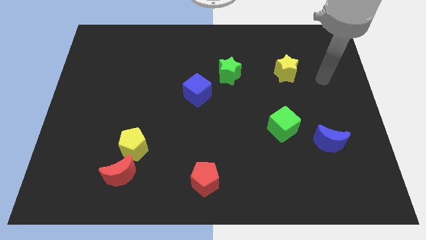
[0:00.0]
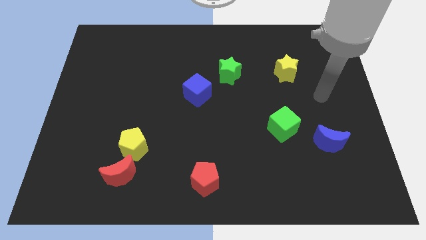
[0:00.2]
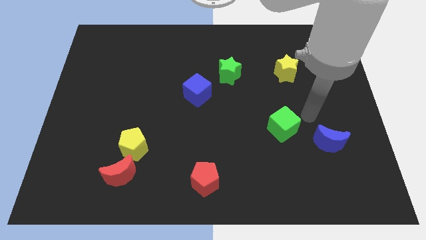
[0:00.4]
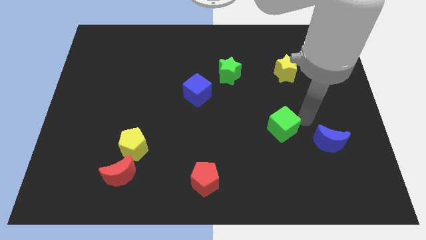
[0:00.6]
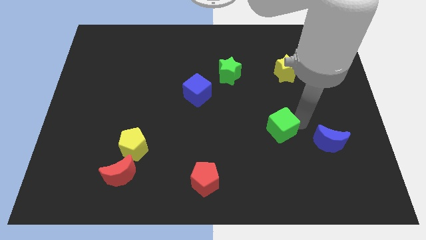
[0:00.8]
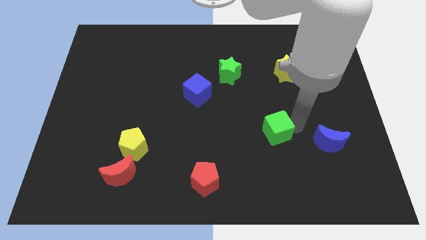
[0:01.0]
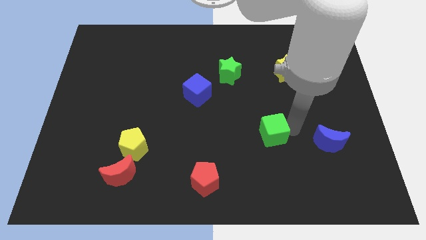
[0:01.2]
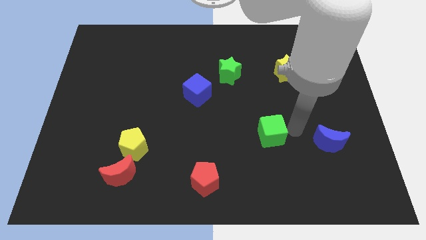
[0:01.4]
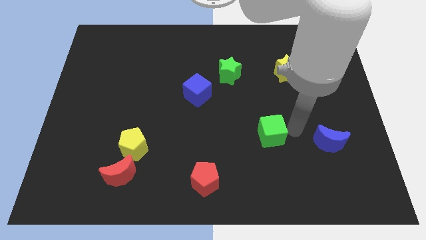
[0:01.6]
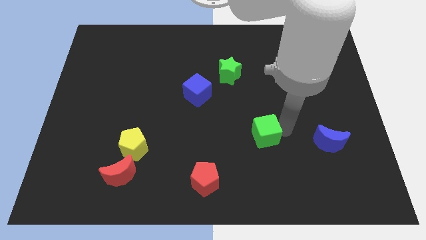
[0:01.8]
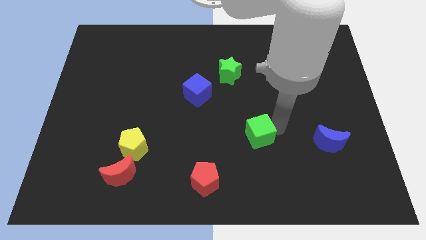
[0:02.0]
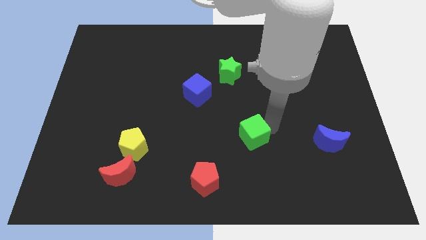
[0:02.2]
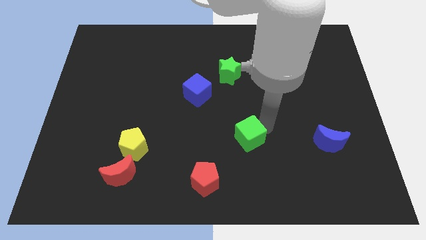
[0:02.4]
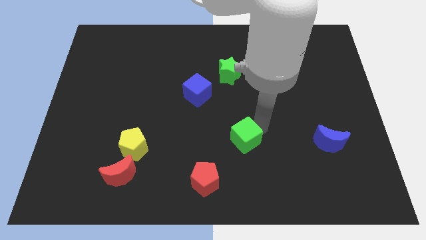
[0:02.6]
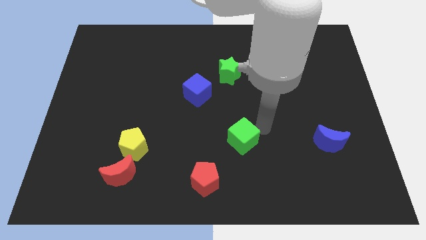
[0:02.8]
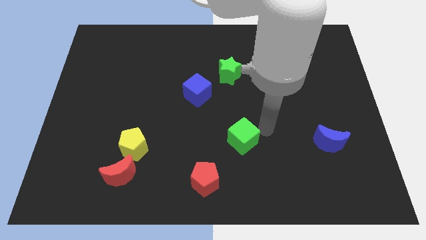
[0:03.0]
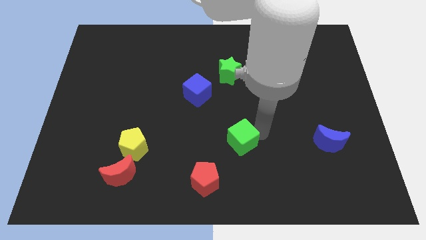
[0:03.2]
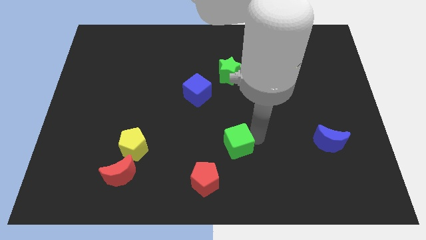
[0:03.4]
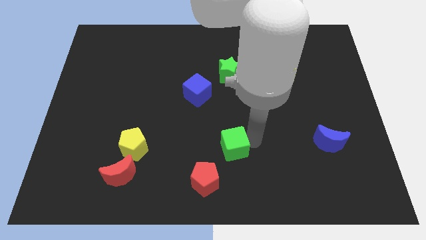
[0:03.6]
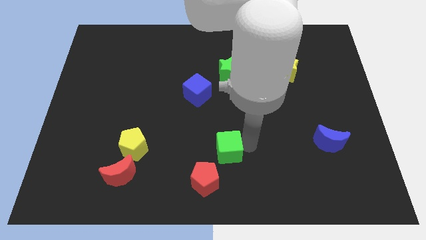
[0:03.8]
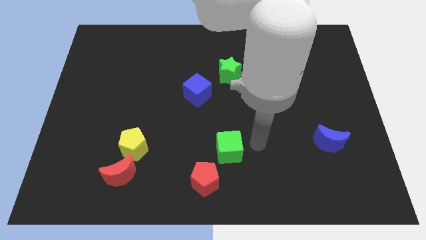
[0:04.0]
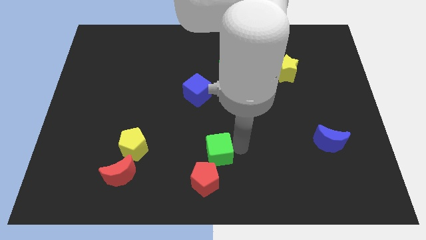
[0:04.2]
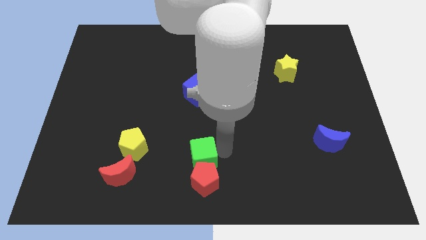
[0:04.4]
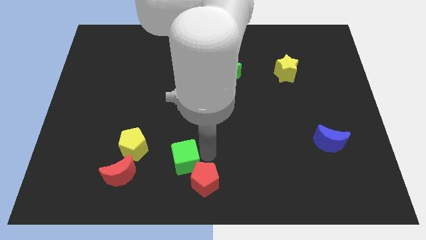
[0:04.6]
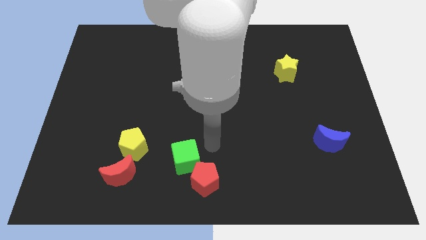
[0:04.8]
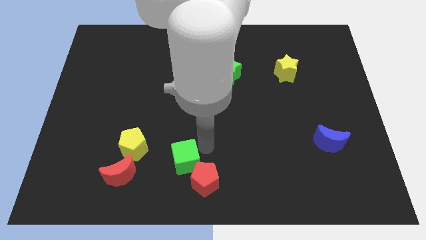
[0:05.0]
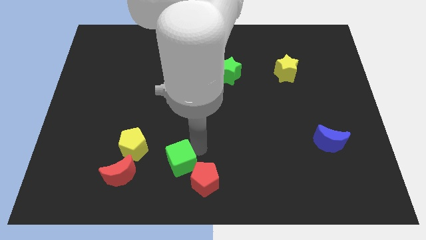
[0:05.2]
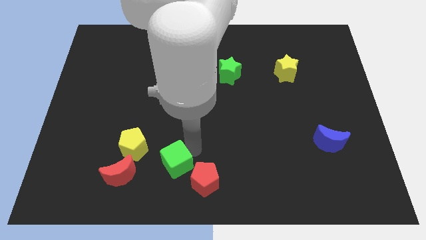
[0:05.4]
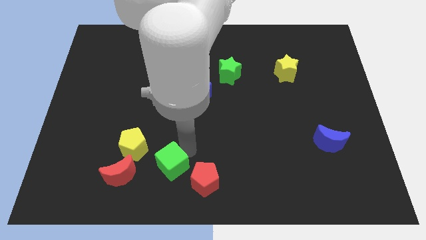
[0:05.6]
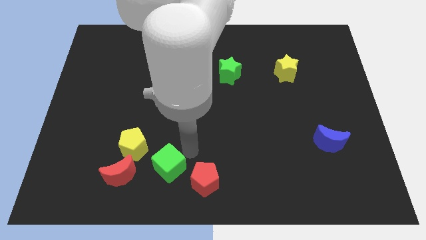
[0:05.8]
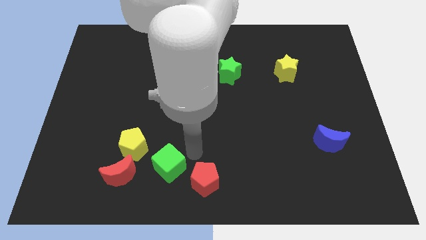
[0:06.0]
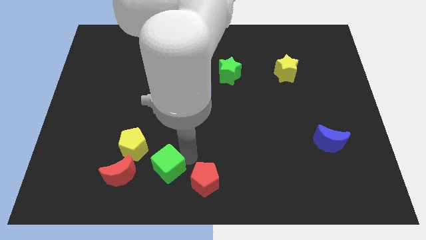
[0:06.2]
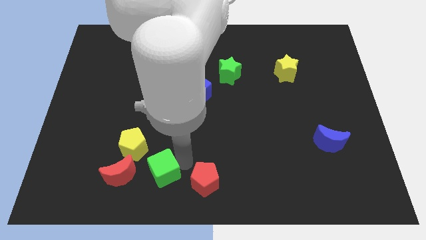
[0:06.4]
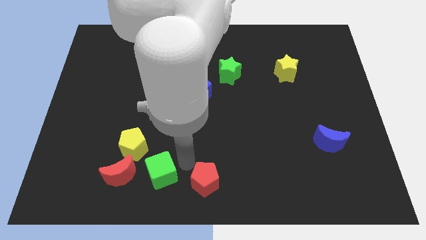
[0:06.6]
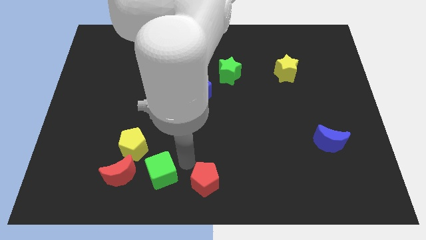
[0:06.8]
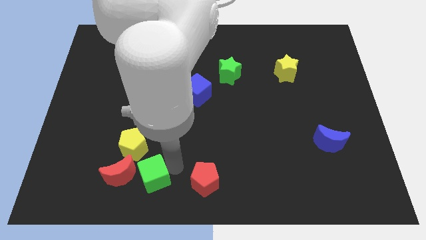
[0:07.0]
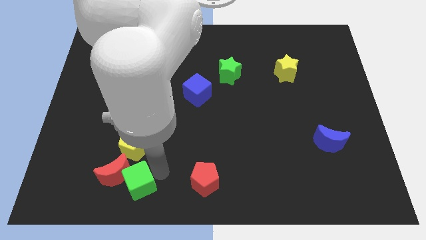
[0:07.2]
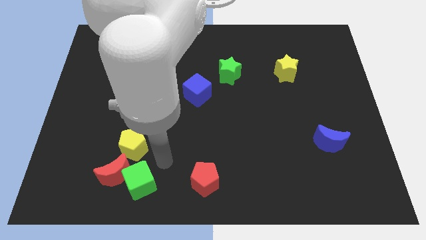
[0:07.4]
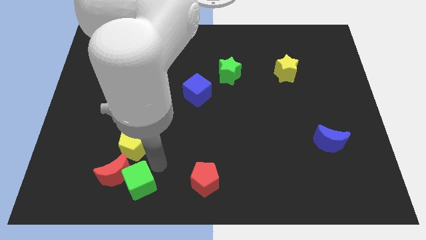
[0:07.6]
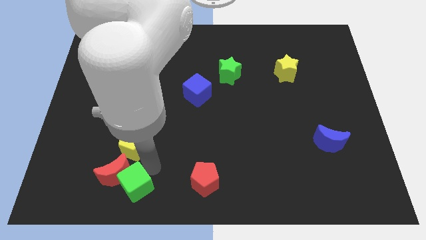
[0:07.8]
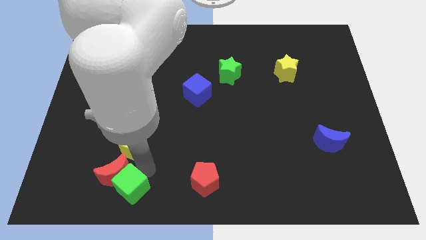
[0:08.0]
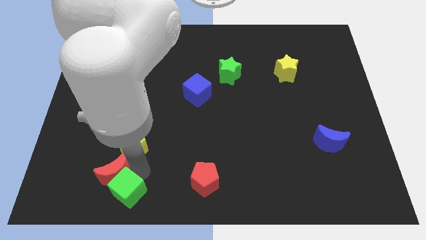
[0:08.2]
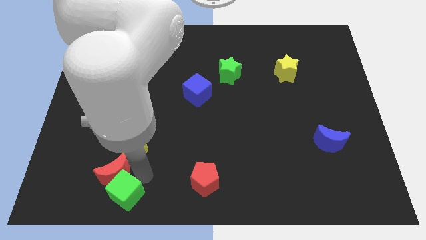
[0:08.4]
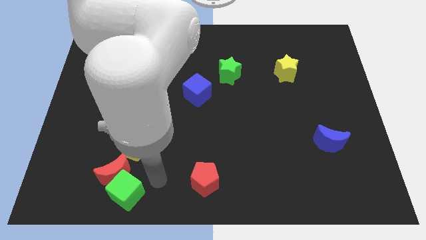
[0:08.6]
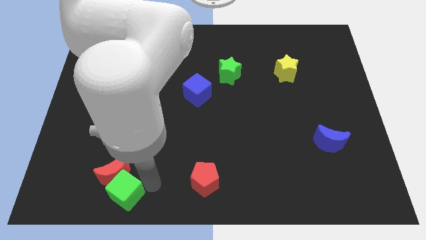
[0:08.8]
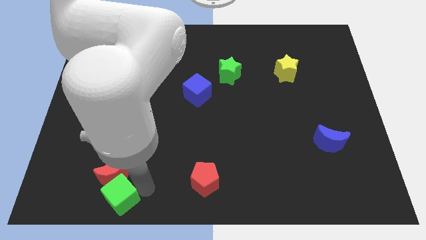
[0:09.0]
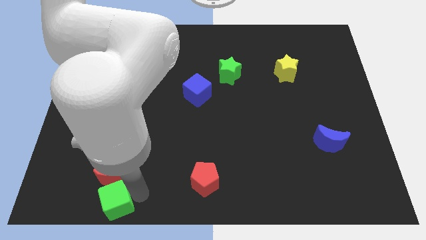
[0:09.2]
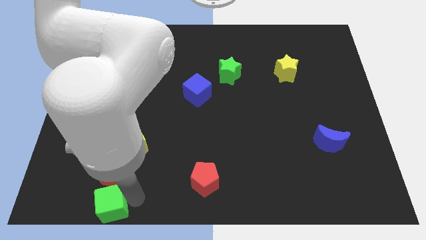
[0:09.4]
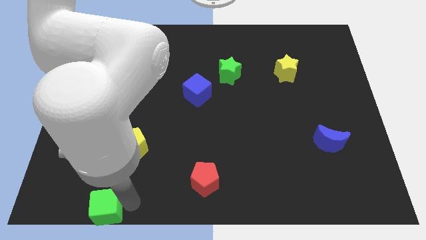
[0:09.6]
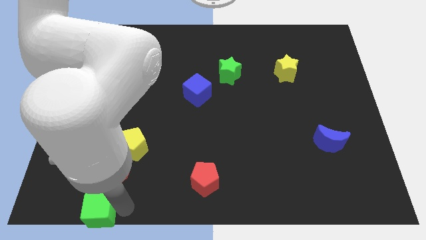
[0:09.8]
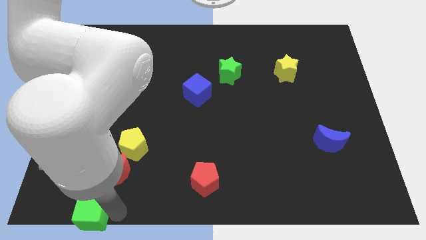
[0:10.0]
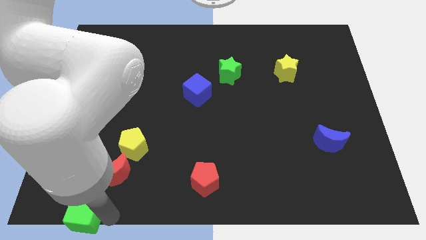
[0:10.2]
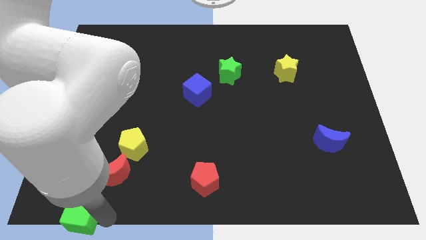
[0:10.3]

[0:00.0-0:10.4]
move the green cube to the bottom left
